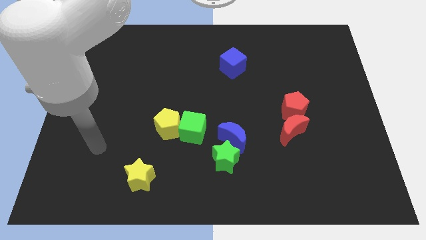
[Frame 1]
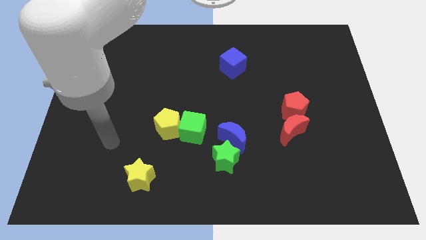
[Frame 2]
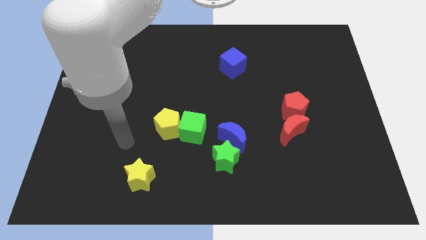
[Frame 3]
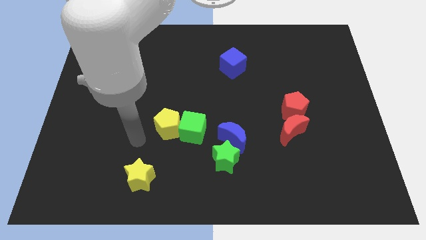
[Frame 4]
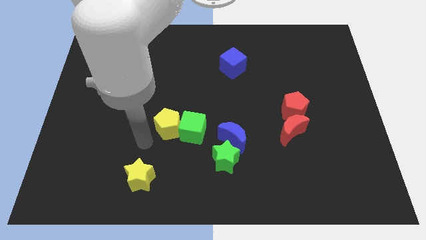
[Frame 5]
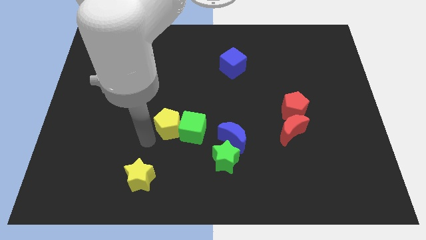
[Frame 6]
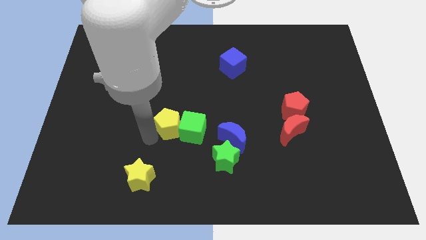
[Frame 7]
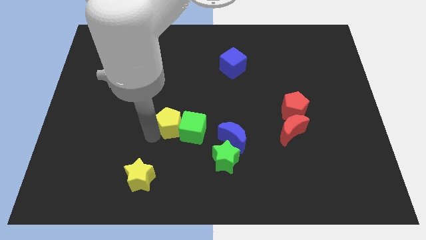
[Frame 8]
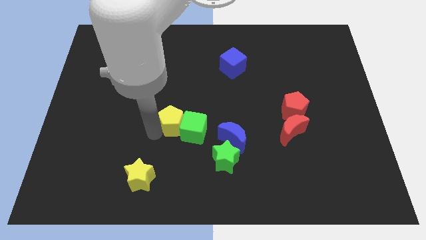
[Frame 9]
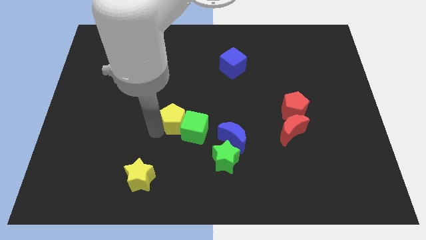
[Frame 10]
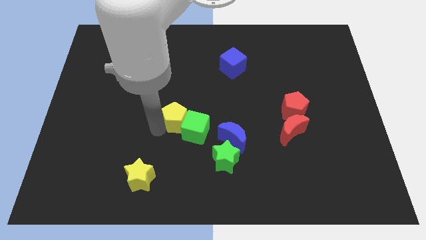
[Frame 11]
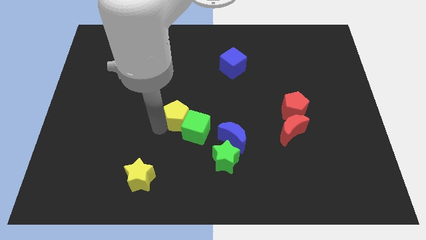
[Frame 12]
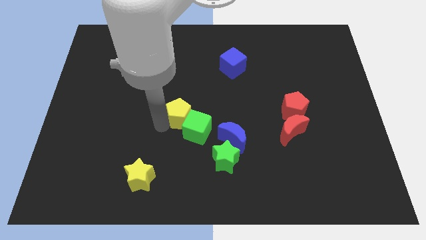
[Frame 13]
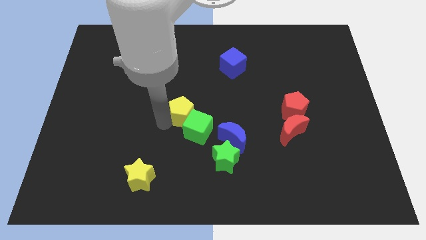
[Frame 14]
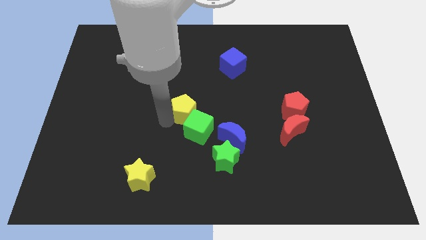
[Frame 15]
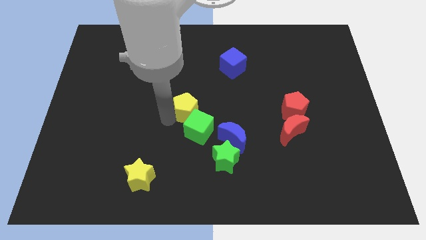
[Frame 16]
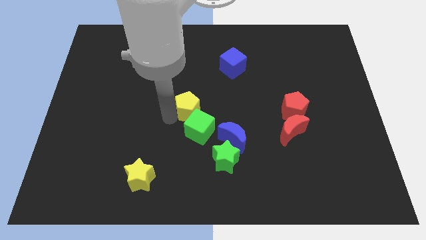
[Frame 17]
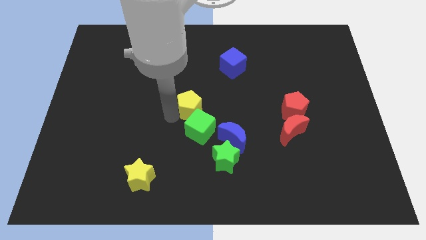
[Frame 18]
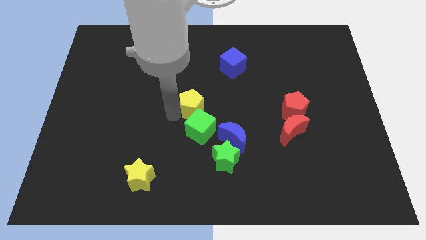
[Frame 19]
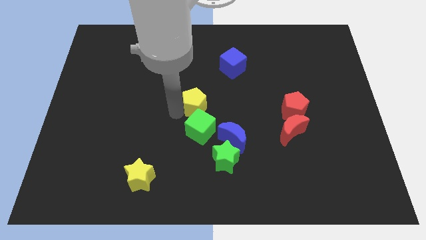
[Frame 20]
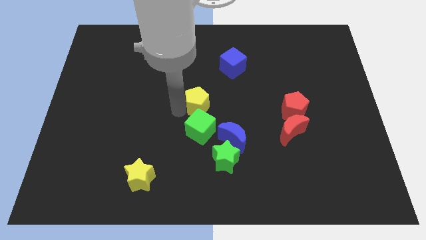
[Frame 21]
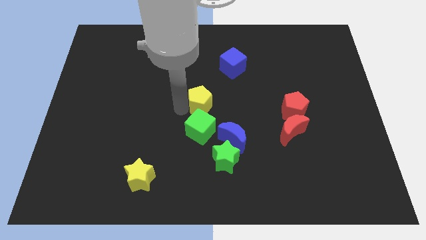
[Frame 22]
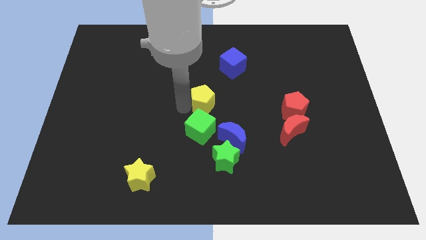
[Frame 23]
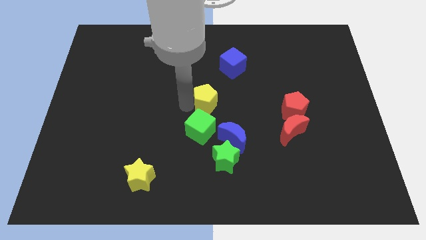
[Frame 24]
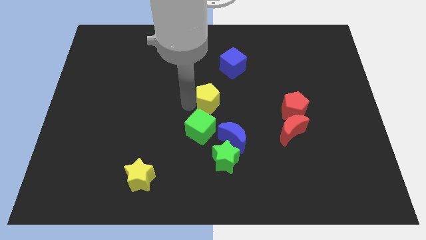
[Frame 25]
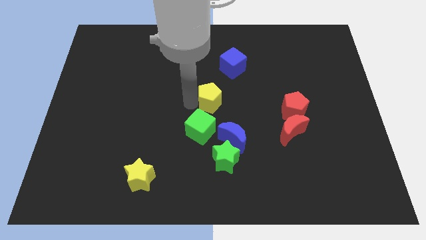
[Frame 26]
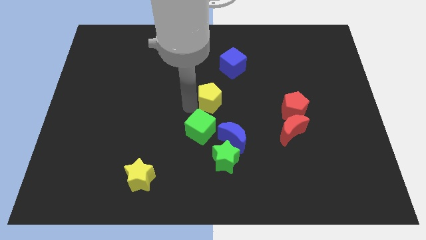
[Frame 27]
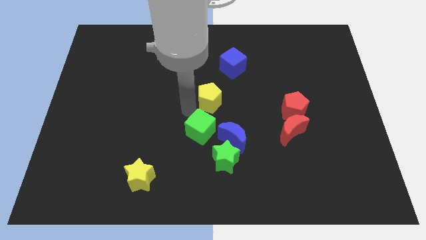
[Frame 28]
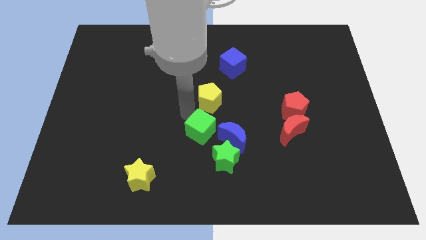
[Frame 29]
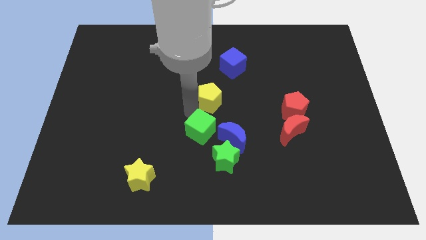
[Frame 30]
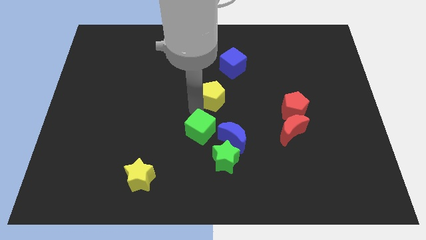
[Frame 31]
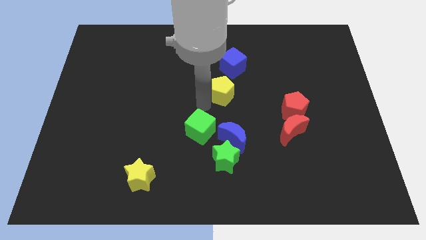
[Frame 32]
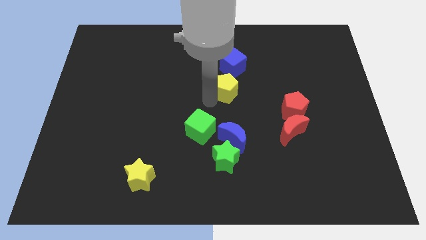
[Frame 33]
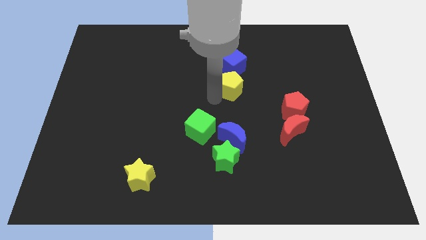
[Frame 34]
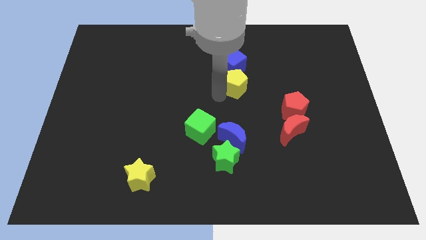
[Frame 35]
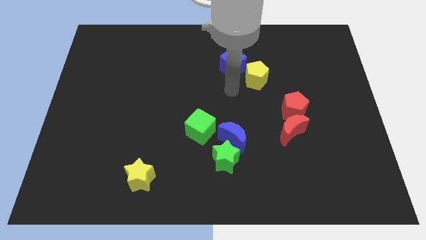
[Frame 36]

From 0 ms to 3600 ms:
push the yellow pentagon diagonally upwards and right

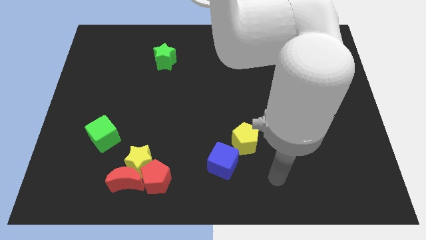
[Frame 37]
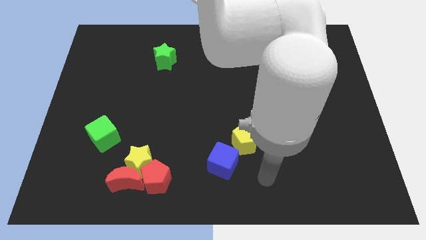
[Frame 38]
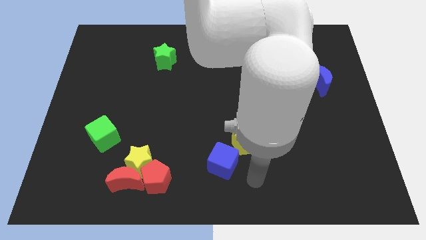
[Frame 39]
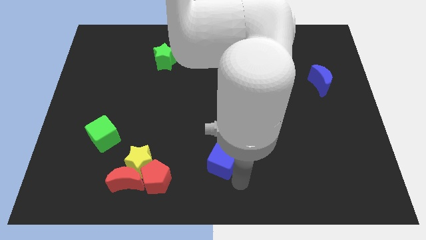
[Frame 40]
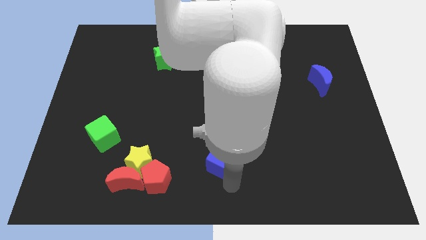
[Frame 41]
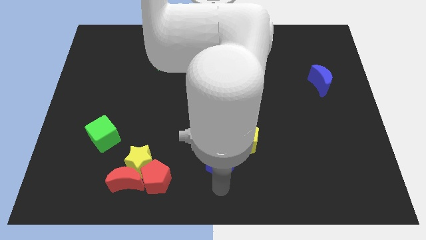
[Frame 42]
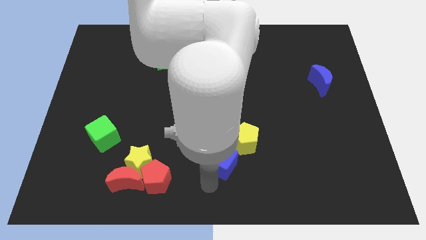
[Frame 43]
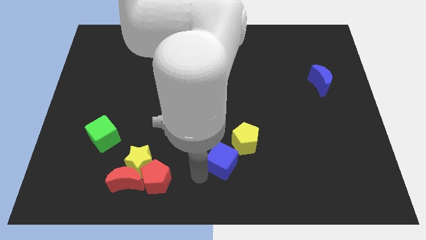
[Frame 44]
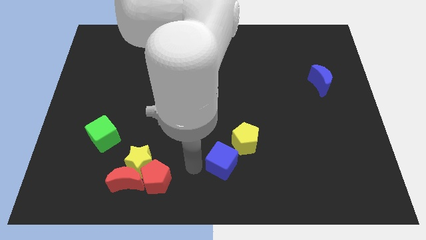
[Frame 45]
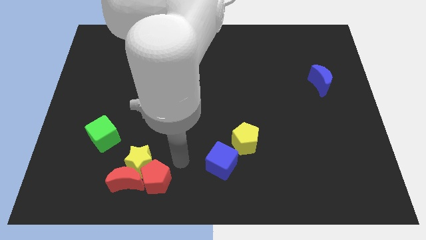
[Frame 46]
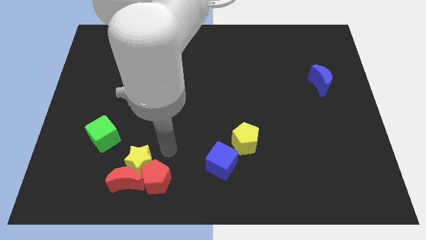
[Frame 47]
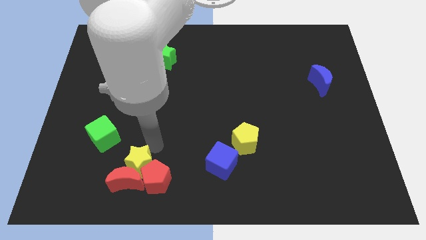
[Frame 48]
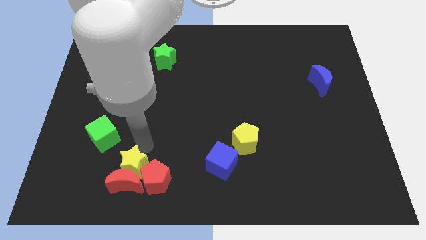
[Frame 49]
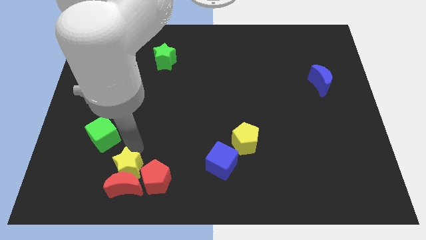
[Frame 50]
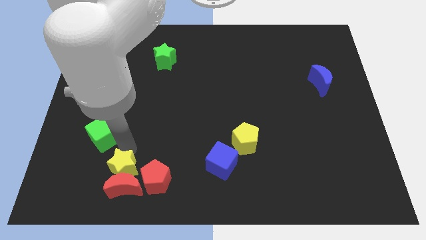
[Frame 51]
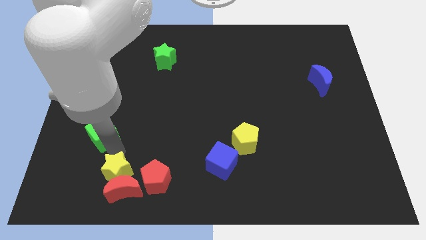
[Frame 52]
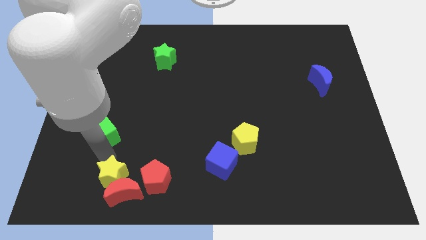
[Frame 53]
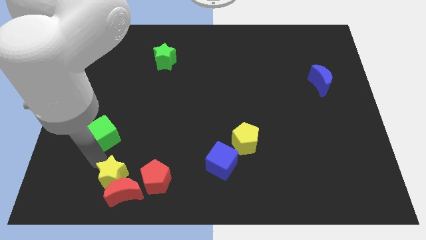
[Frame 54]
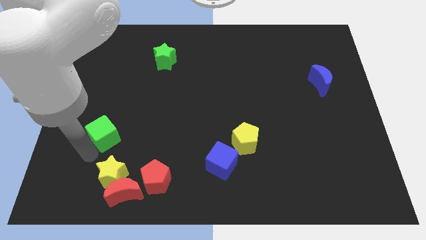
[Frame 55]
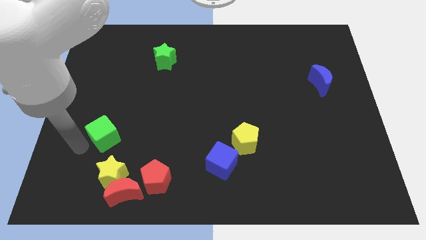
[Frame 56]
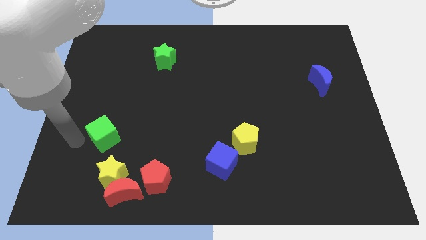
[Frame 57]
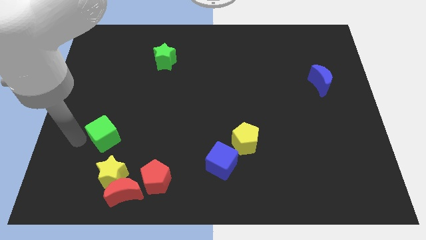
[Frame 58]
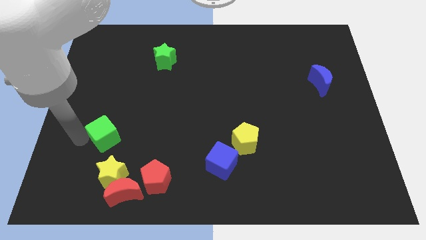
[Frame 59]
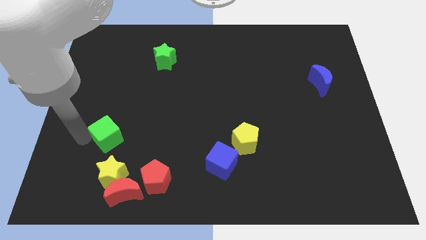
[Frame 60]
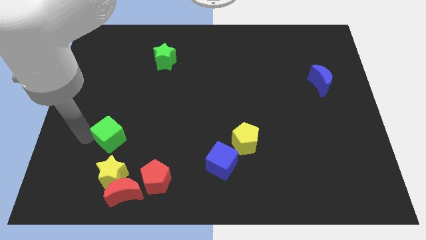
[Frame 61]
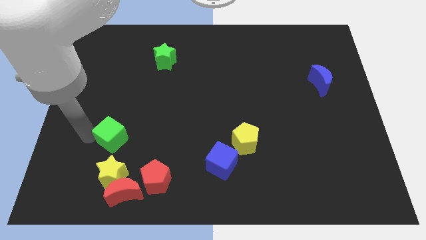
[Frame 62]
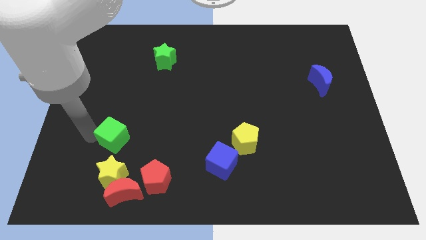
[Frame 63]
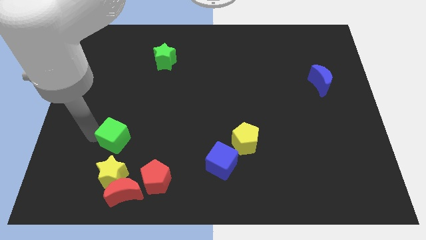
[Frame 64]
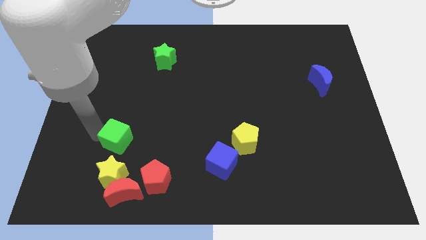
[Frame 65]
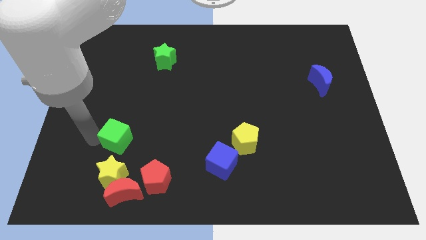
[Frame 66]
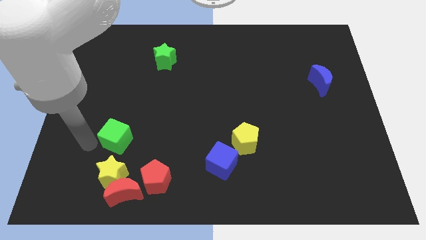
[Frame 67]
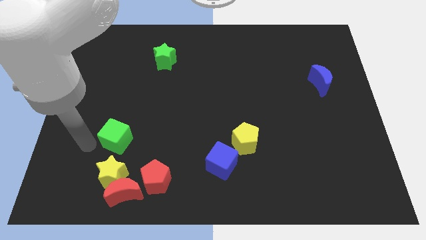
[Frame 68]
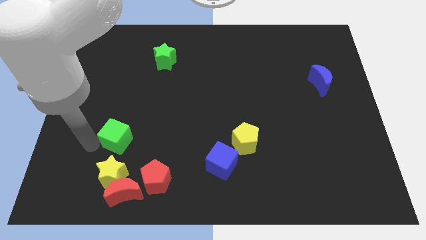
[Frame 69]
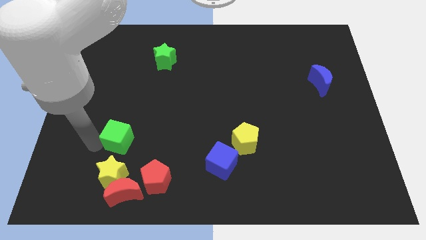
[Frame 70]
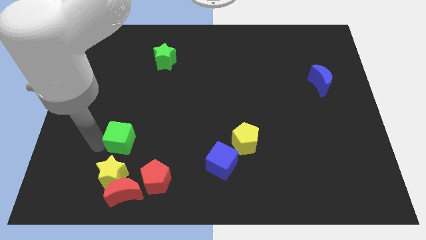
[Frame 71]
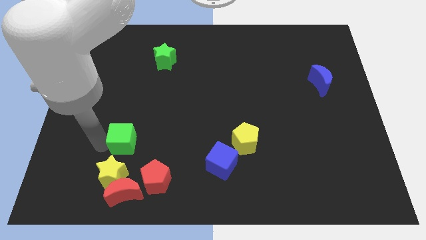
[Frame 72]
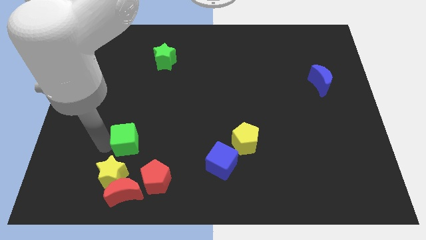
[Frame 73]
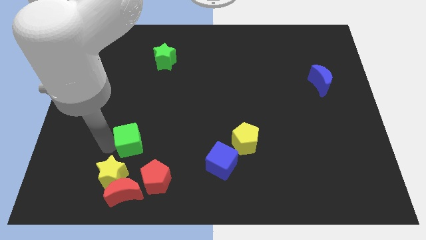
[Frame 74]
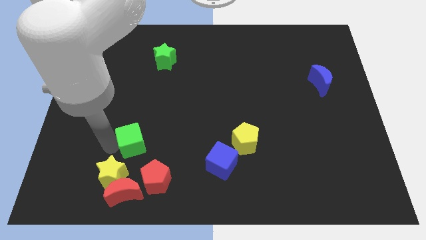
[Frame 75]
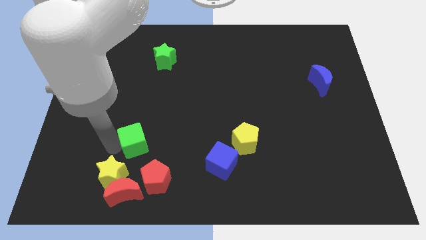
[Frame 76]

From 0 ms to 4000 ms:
move the green cube somewhat to the right

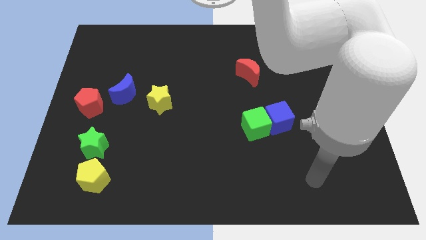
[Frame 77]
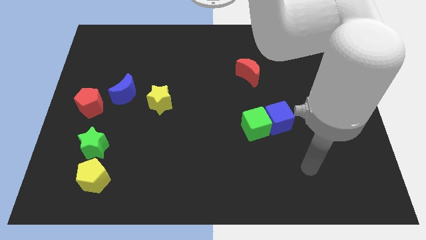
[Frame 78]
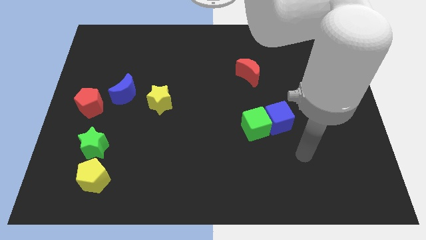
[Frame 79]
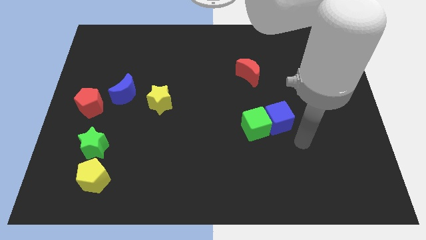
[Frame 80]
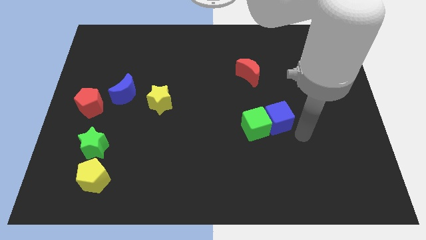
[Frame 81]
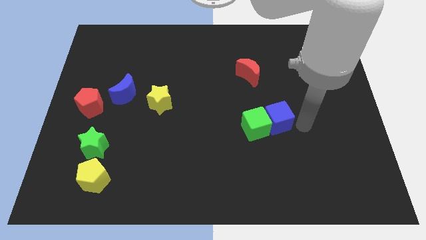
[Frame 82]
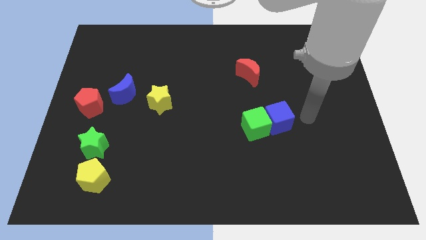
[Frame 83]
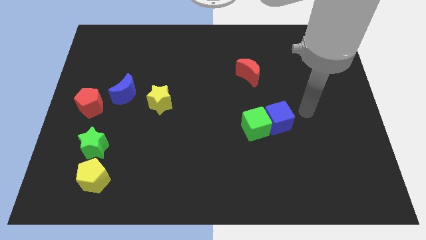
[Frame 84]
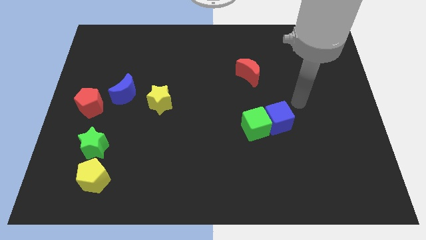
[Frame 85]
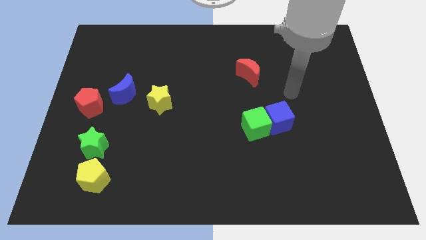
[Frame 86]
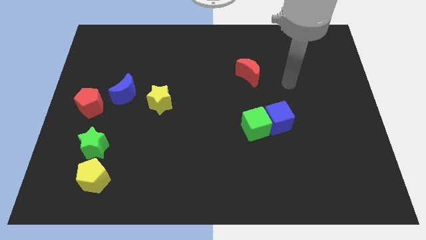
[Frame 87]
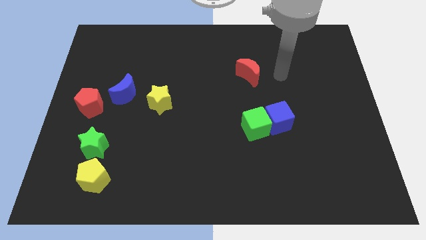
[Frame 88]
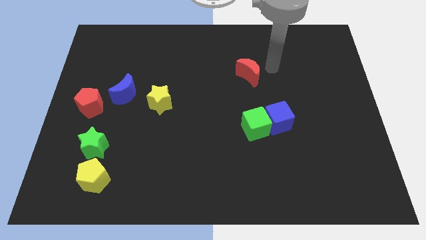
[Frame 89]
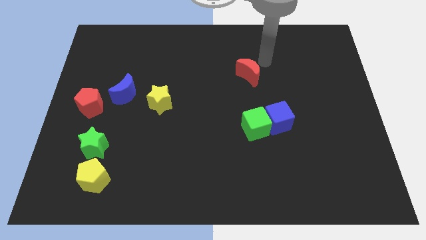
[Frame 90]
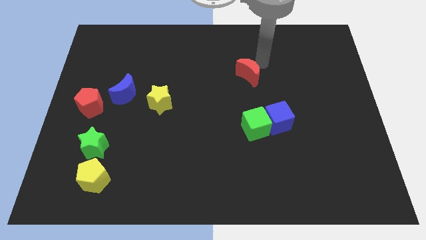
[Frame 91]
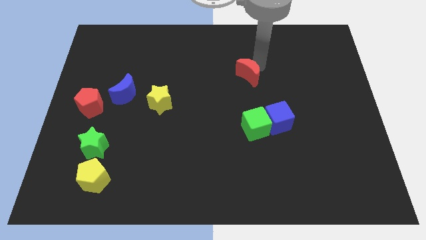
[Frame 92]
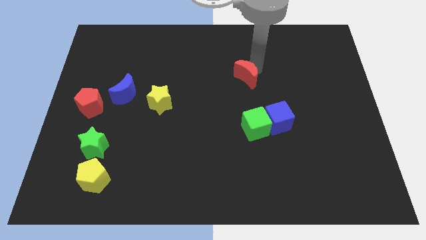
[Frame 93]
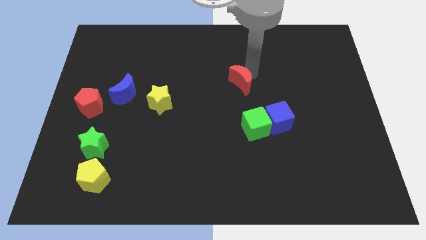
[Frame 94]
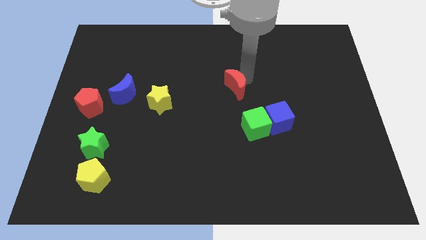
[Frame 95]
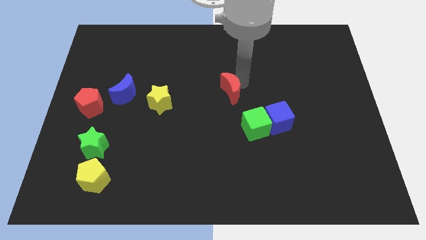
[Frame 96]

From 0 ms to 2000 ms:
slightly push the red moon down and then left
